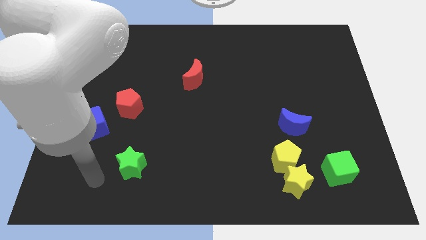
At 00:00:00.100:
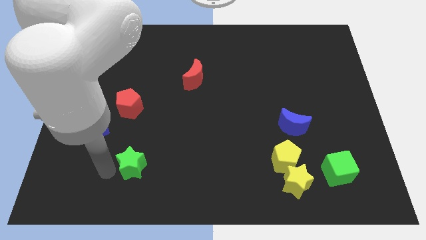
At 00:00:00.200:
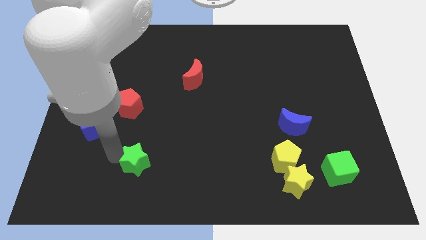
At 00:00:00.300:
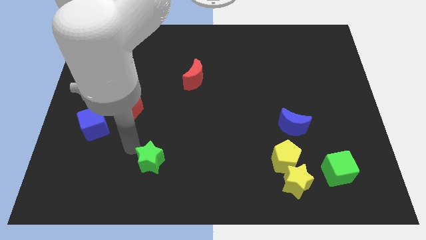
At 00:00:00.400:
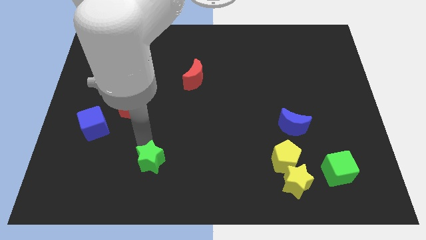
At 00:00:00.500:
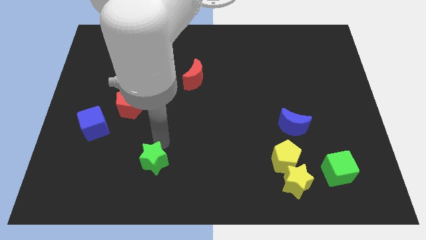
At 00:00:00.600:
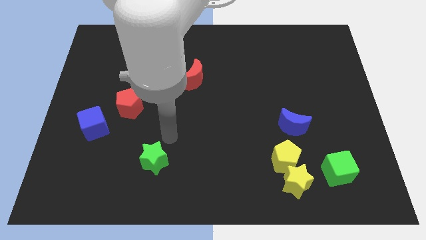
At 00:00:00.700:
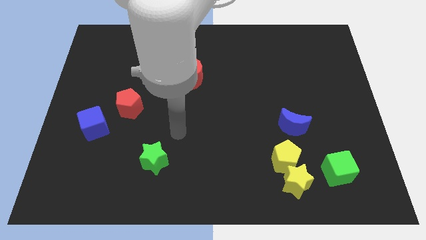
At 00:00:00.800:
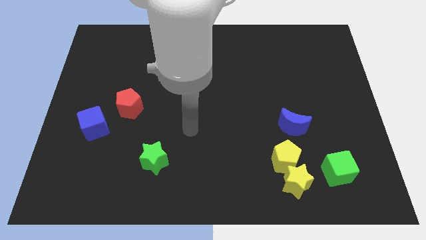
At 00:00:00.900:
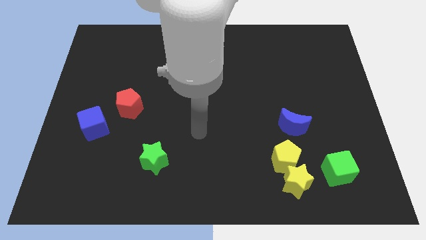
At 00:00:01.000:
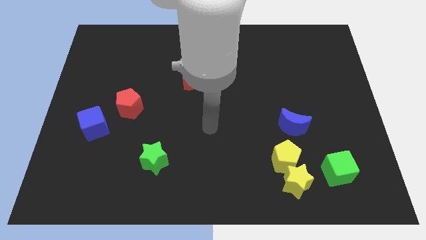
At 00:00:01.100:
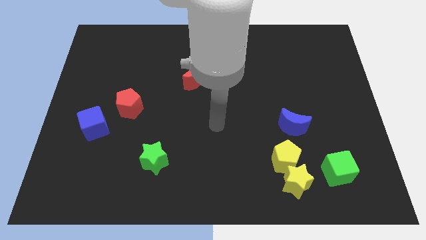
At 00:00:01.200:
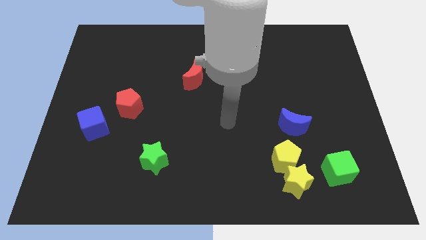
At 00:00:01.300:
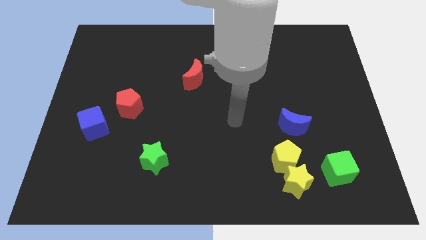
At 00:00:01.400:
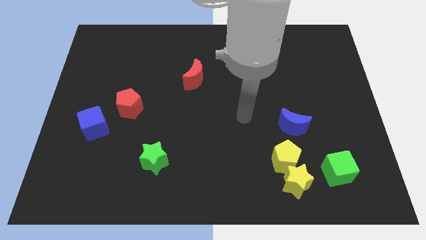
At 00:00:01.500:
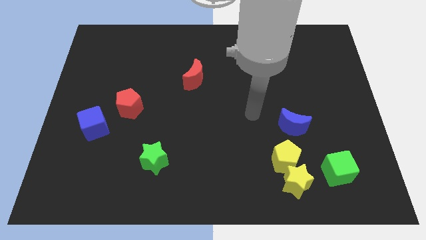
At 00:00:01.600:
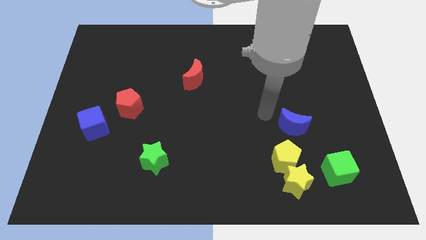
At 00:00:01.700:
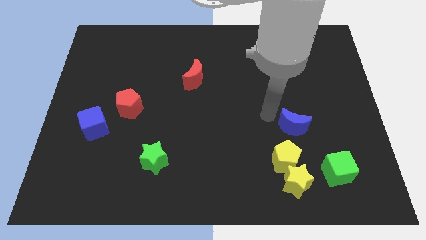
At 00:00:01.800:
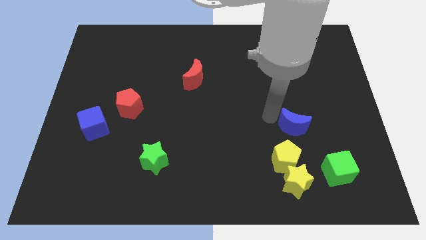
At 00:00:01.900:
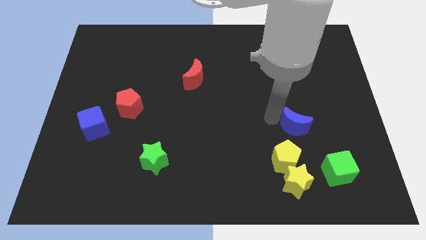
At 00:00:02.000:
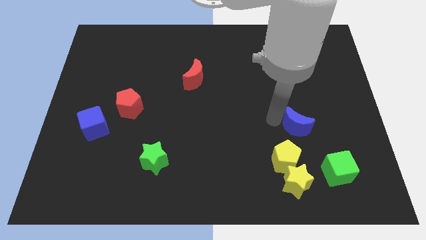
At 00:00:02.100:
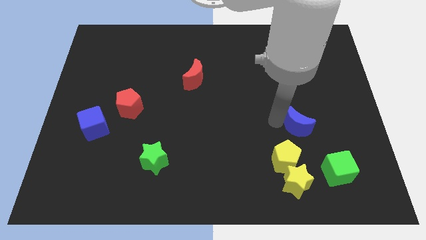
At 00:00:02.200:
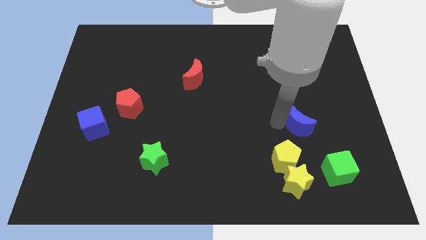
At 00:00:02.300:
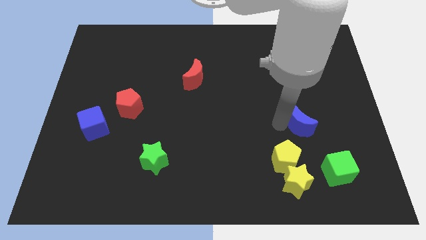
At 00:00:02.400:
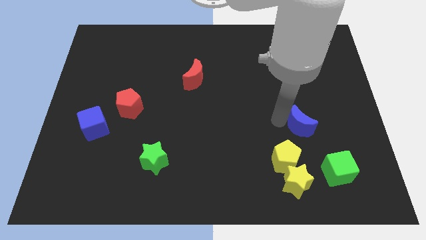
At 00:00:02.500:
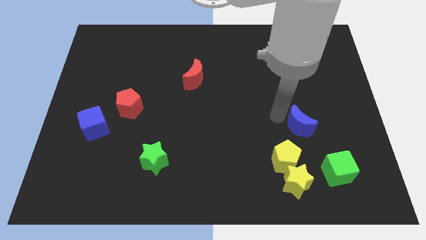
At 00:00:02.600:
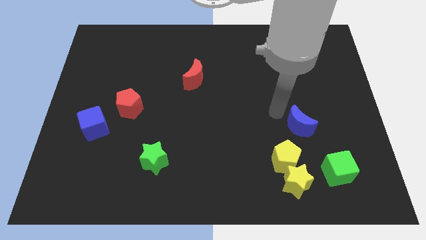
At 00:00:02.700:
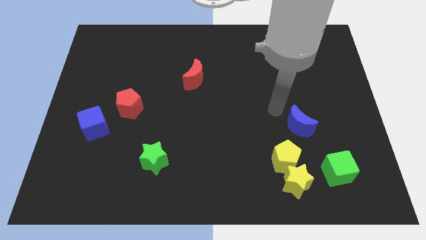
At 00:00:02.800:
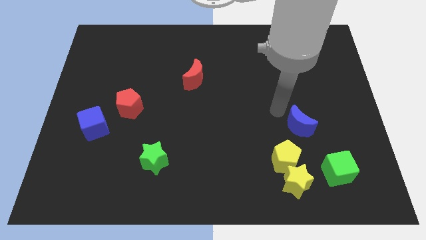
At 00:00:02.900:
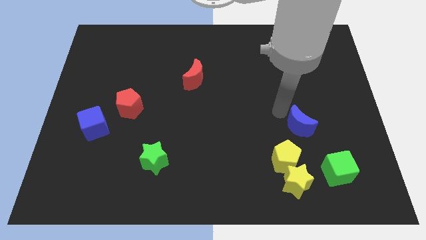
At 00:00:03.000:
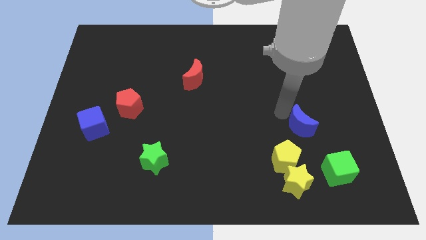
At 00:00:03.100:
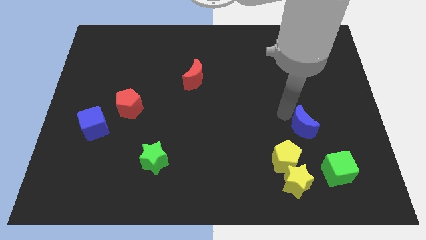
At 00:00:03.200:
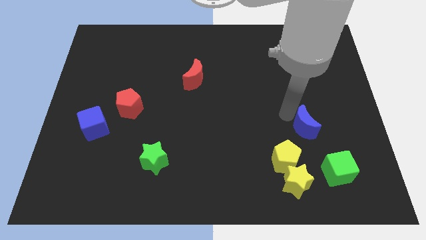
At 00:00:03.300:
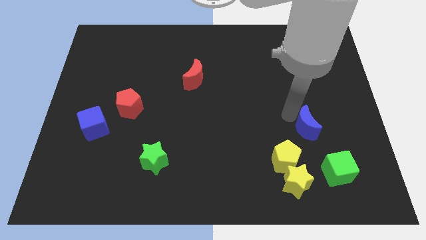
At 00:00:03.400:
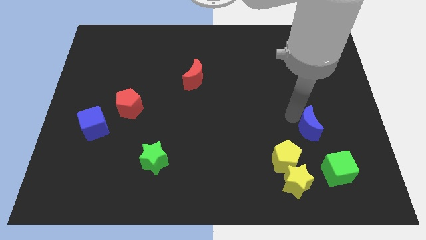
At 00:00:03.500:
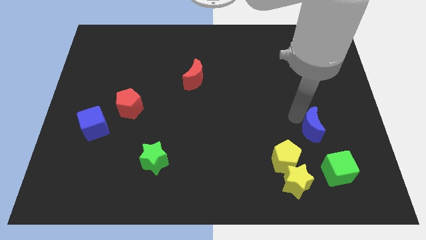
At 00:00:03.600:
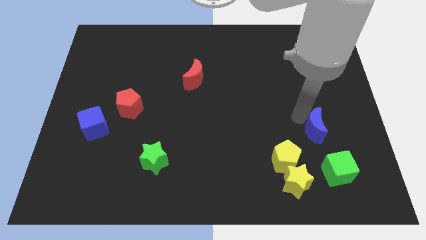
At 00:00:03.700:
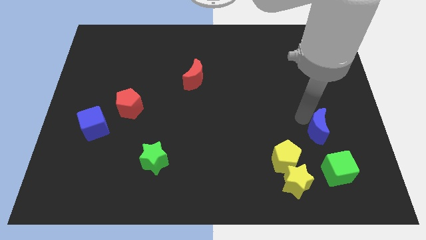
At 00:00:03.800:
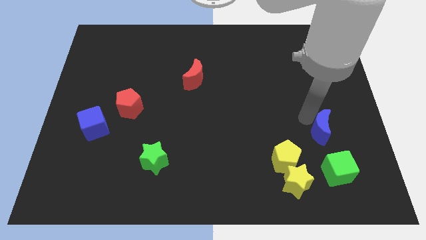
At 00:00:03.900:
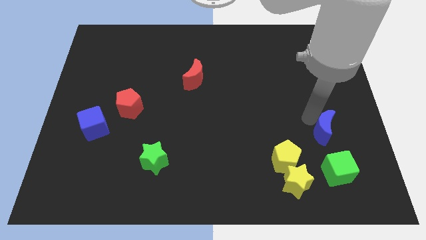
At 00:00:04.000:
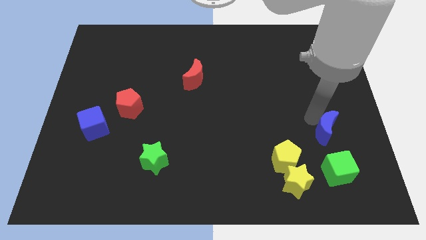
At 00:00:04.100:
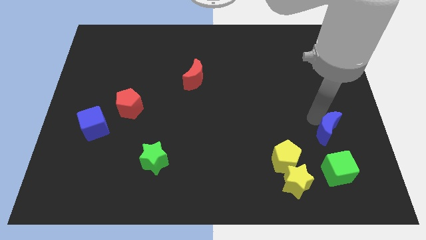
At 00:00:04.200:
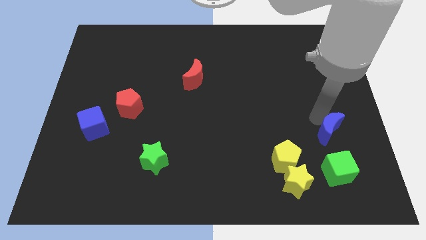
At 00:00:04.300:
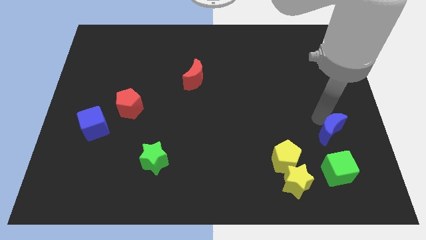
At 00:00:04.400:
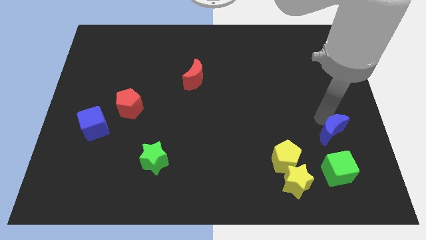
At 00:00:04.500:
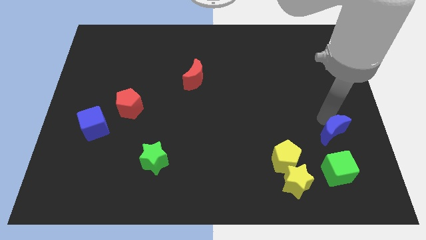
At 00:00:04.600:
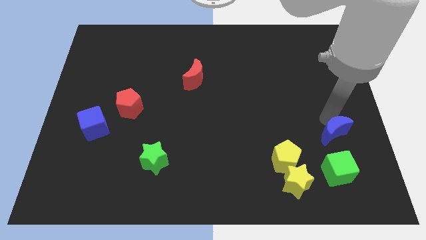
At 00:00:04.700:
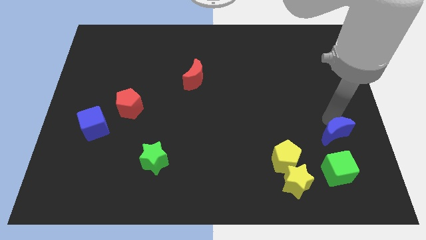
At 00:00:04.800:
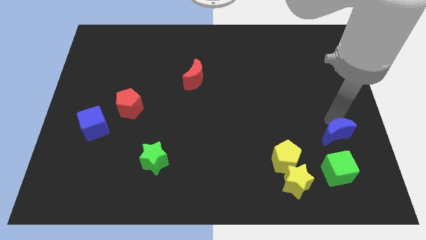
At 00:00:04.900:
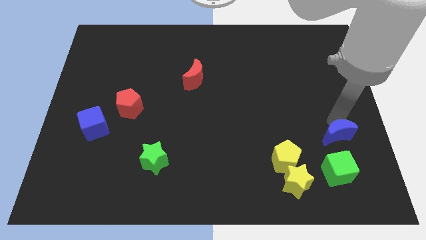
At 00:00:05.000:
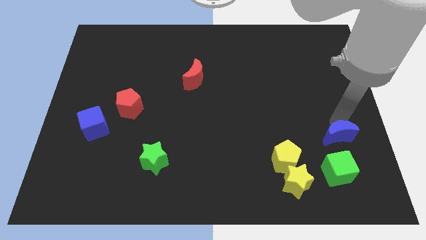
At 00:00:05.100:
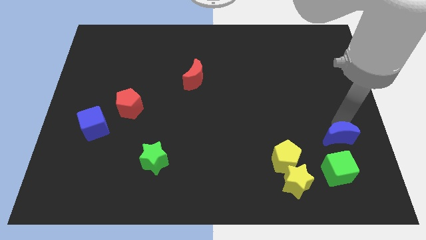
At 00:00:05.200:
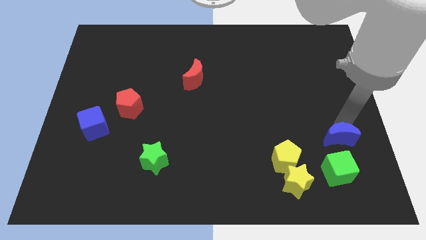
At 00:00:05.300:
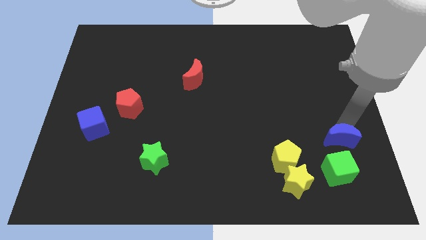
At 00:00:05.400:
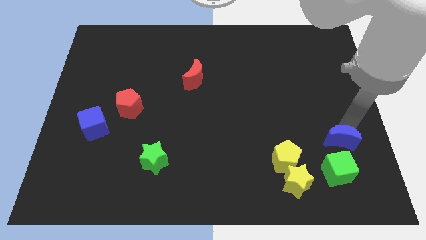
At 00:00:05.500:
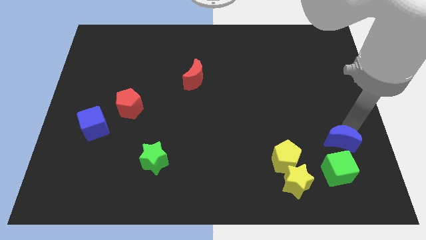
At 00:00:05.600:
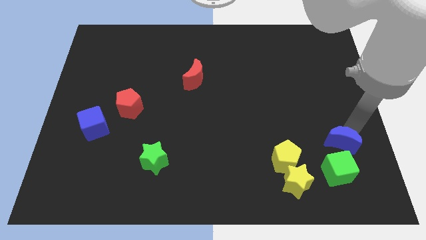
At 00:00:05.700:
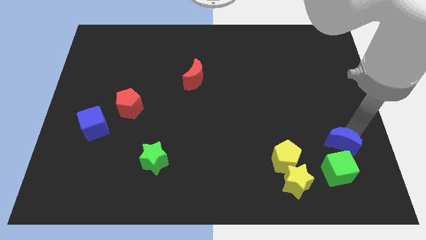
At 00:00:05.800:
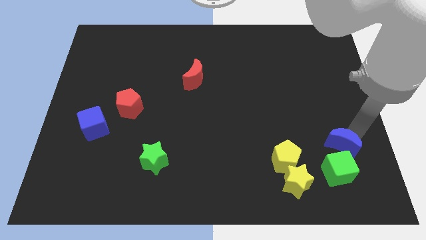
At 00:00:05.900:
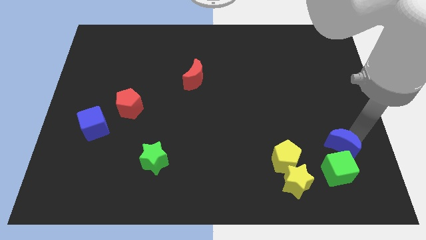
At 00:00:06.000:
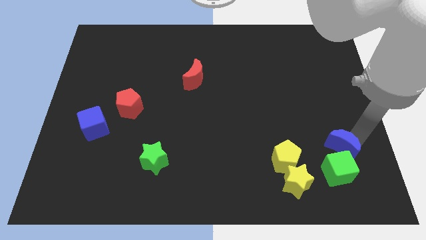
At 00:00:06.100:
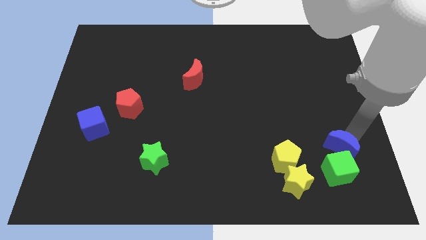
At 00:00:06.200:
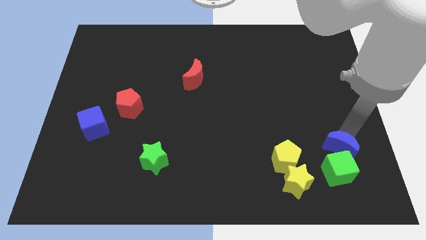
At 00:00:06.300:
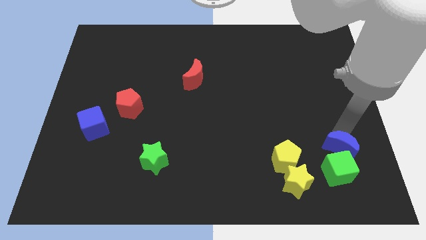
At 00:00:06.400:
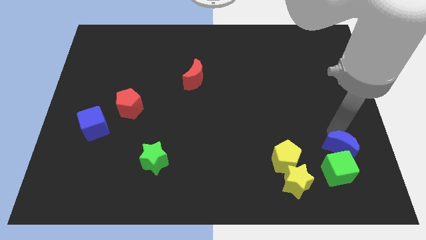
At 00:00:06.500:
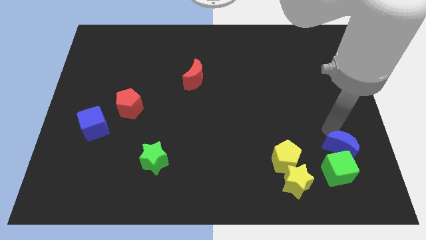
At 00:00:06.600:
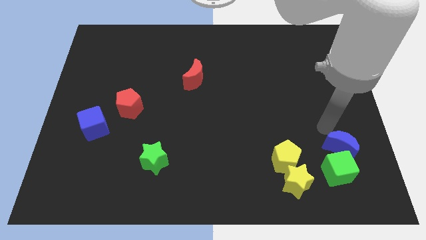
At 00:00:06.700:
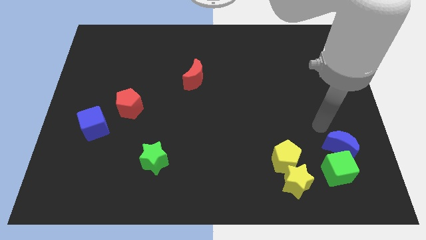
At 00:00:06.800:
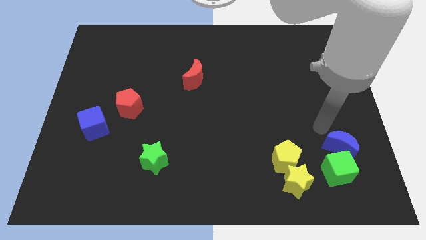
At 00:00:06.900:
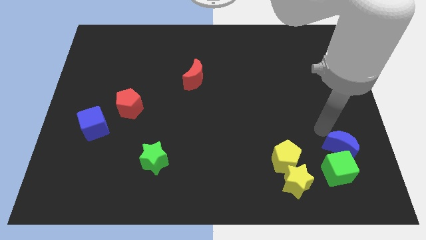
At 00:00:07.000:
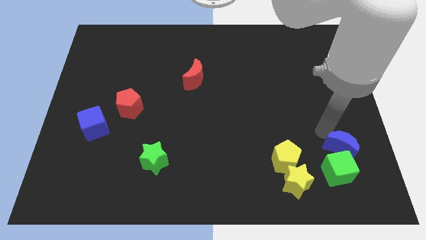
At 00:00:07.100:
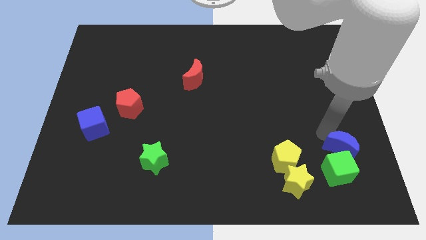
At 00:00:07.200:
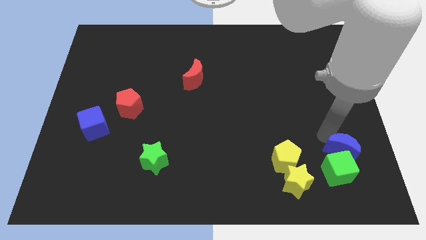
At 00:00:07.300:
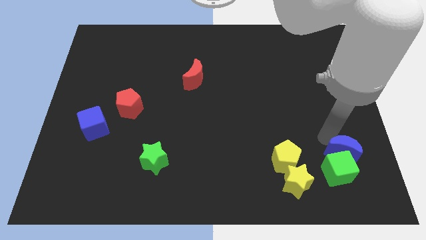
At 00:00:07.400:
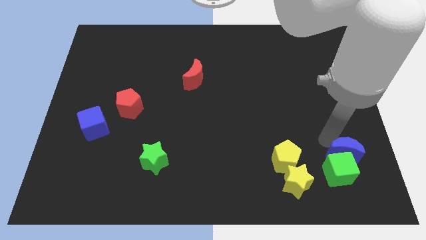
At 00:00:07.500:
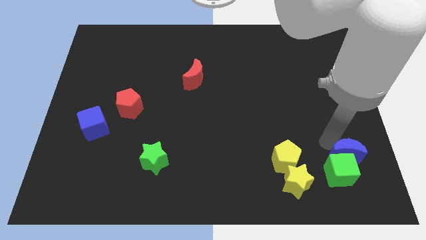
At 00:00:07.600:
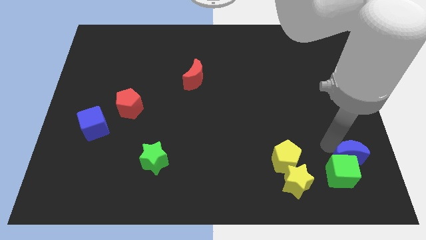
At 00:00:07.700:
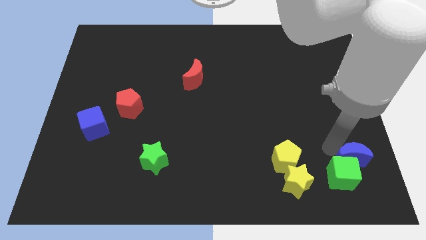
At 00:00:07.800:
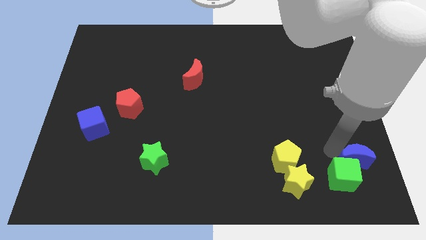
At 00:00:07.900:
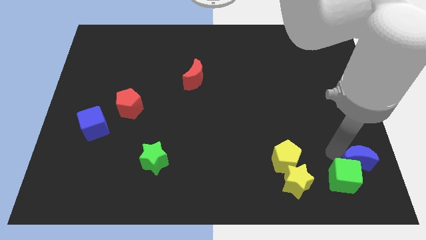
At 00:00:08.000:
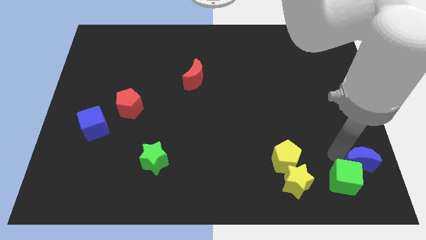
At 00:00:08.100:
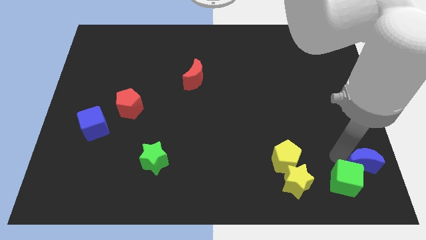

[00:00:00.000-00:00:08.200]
push the blue moon to the bottom right corner
